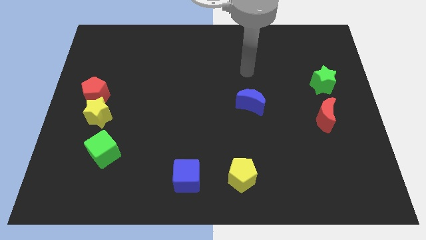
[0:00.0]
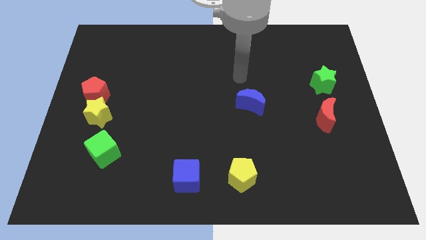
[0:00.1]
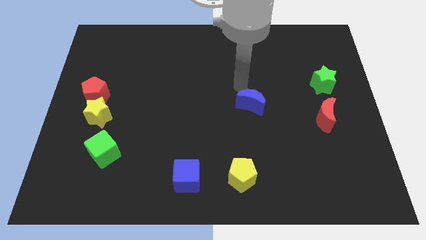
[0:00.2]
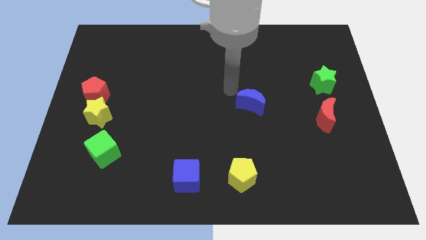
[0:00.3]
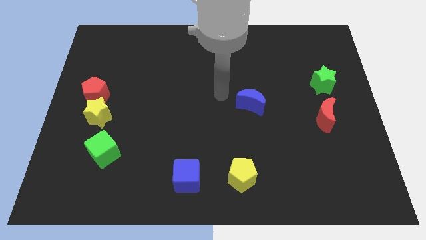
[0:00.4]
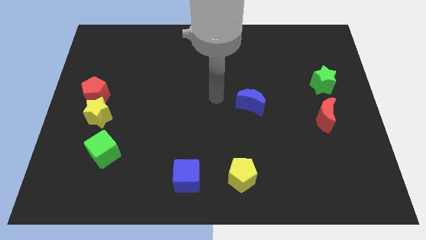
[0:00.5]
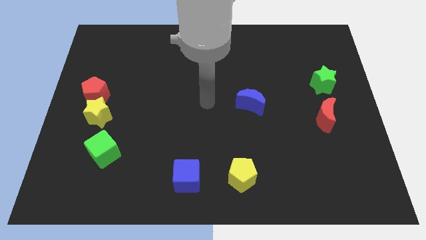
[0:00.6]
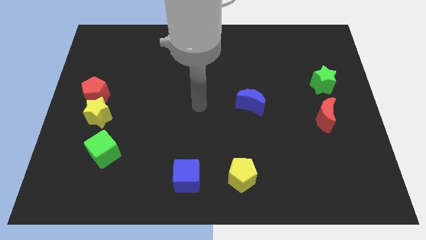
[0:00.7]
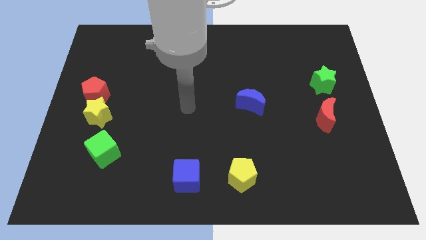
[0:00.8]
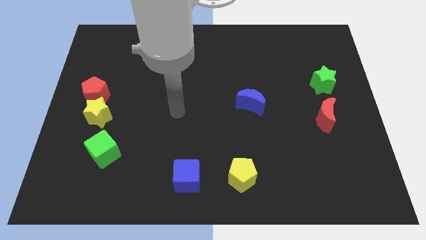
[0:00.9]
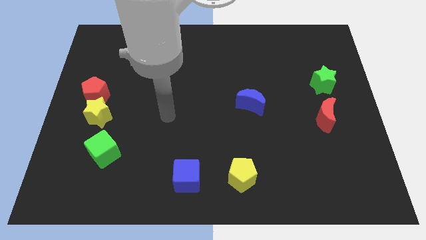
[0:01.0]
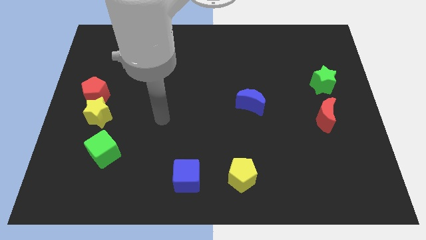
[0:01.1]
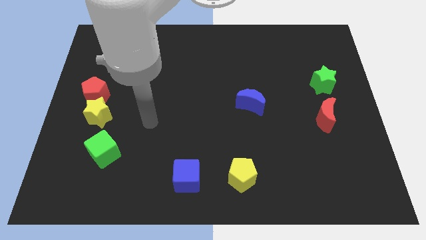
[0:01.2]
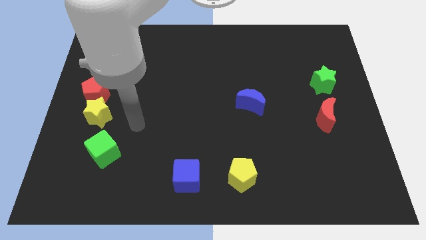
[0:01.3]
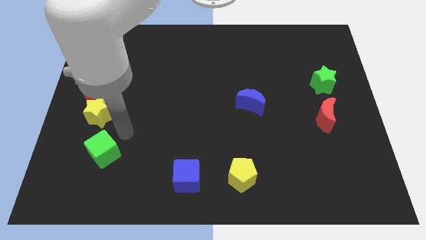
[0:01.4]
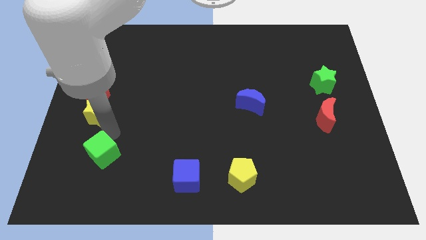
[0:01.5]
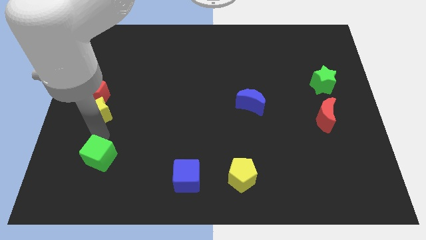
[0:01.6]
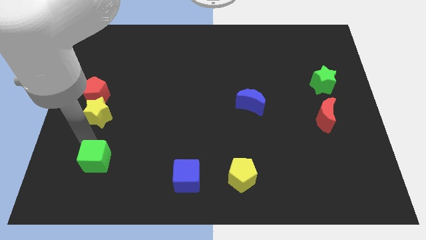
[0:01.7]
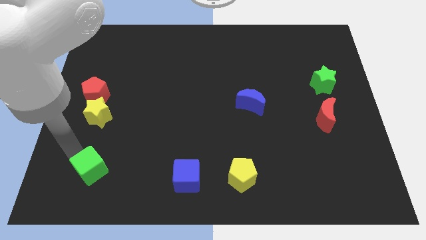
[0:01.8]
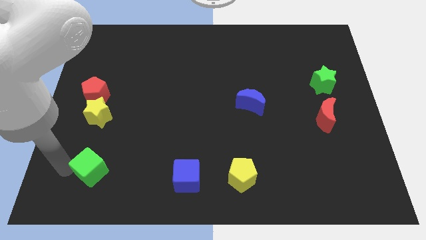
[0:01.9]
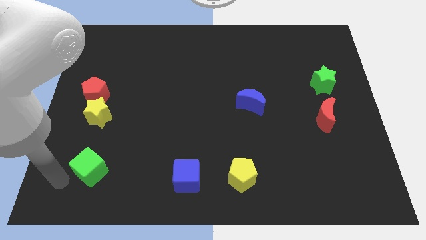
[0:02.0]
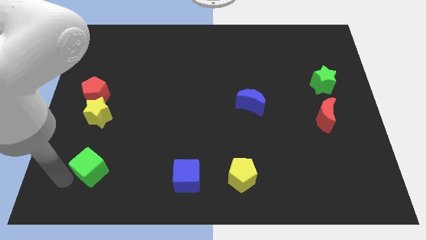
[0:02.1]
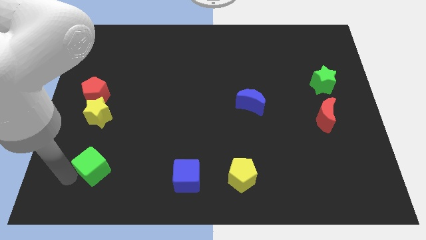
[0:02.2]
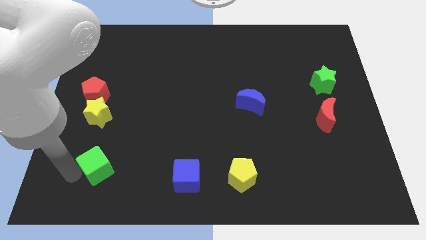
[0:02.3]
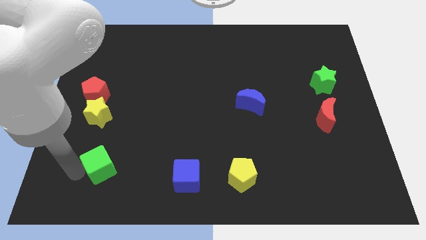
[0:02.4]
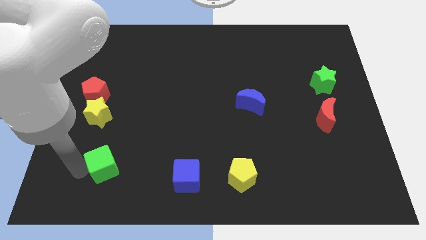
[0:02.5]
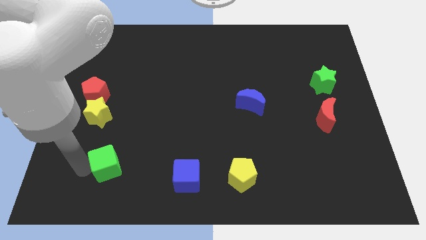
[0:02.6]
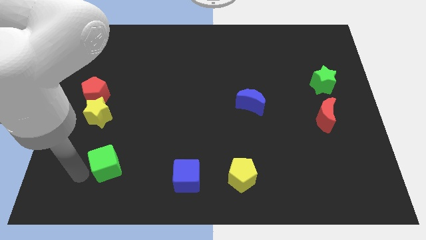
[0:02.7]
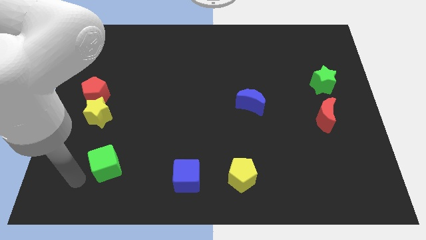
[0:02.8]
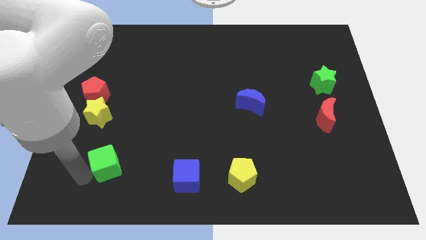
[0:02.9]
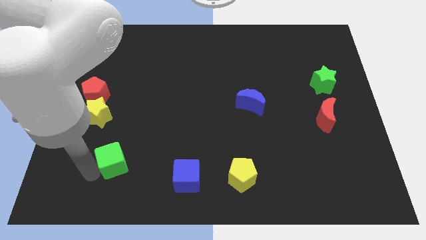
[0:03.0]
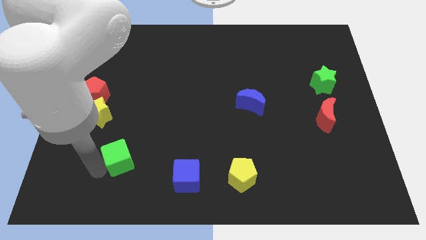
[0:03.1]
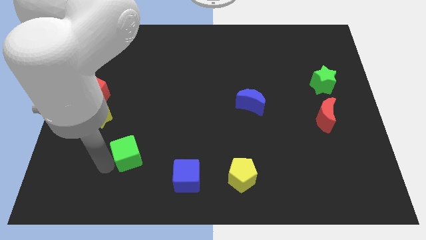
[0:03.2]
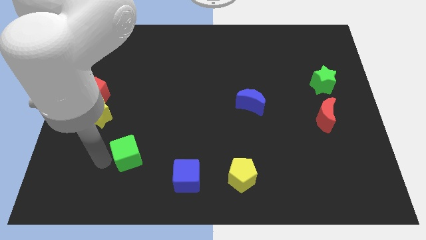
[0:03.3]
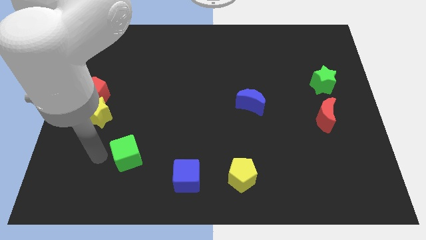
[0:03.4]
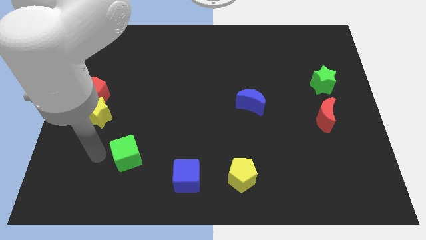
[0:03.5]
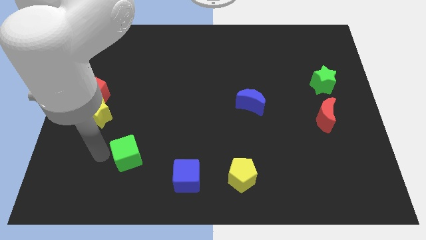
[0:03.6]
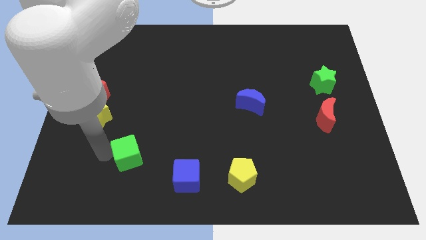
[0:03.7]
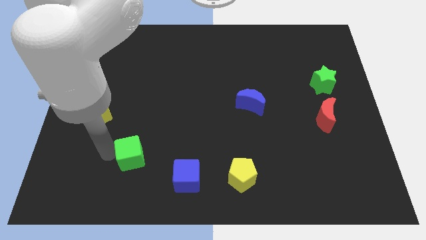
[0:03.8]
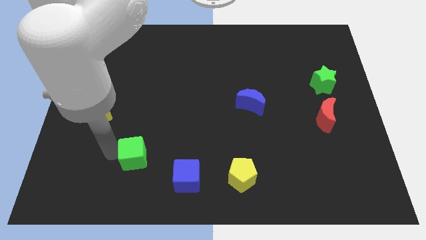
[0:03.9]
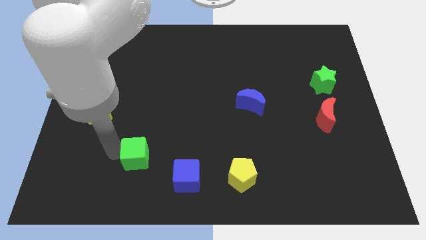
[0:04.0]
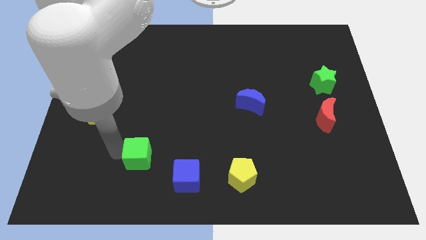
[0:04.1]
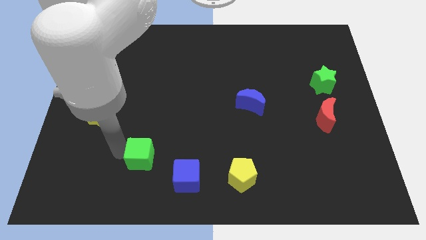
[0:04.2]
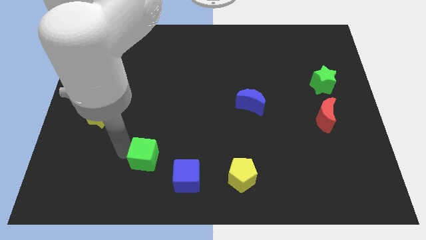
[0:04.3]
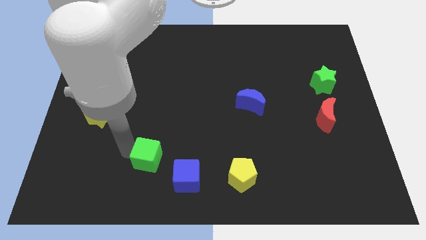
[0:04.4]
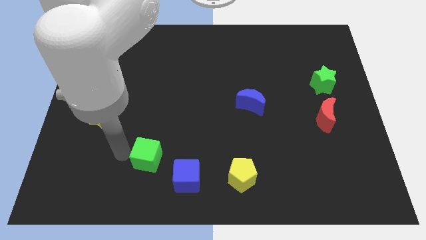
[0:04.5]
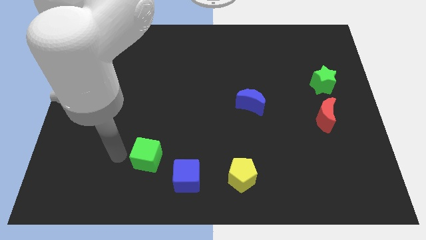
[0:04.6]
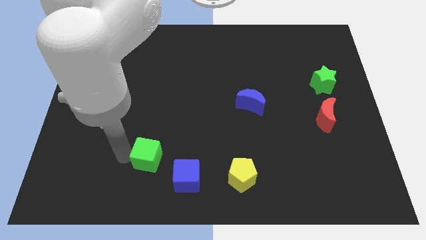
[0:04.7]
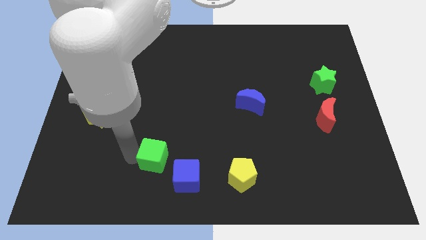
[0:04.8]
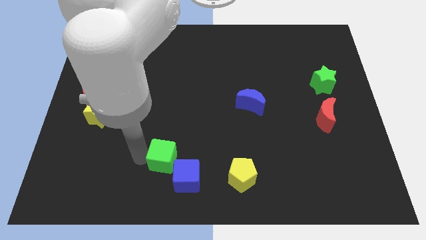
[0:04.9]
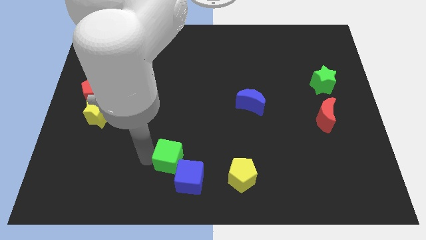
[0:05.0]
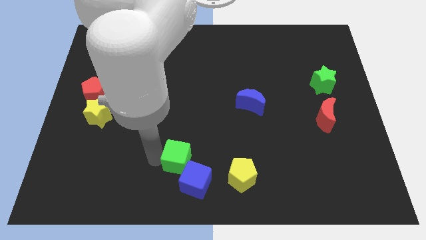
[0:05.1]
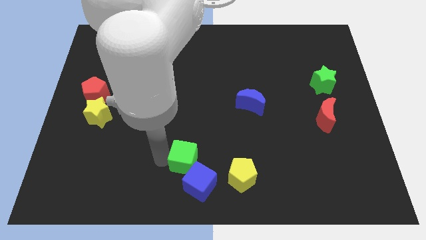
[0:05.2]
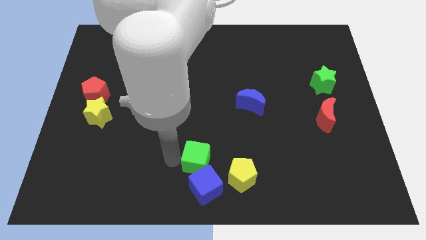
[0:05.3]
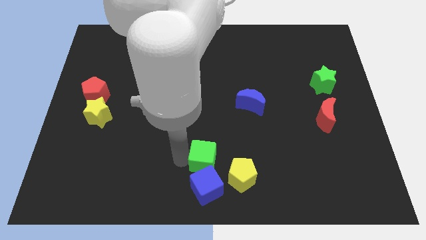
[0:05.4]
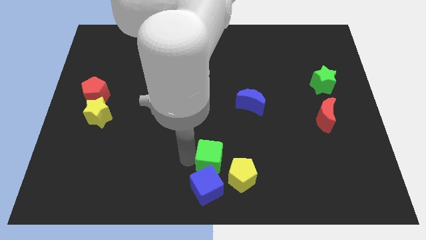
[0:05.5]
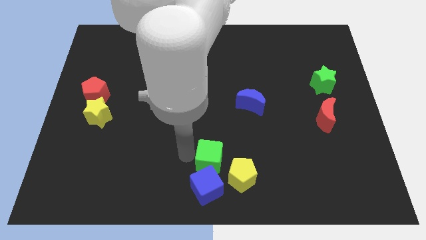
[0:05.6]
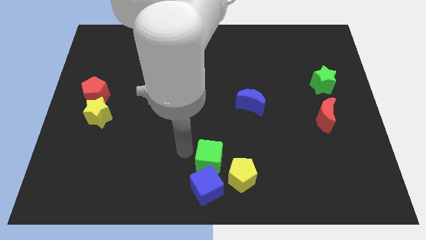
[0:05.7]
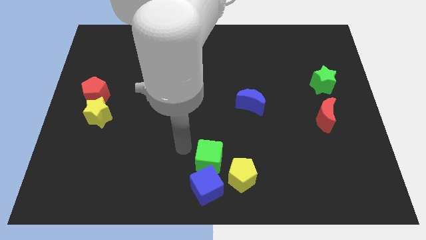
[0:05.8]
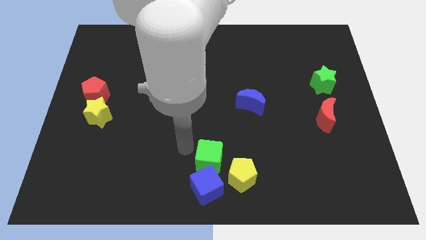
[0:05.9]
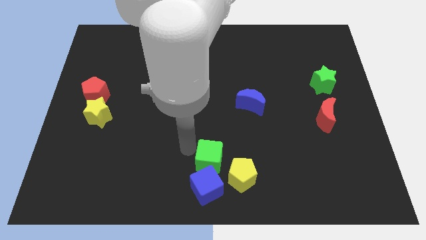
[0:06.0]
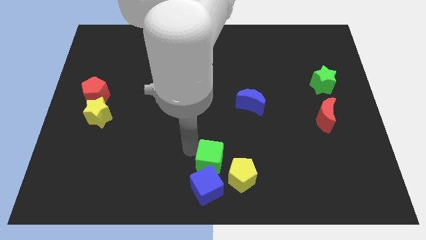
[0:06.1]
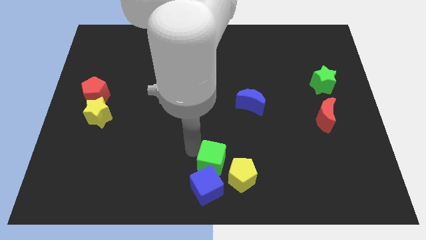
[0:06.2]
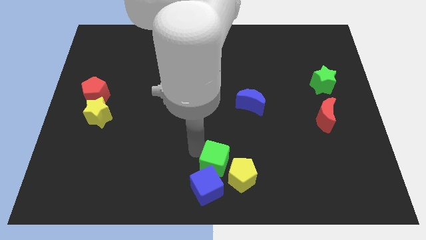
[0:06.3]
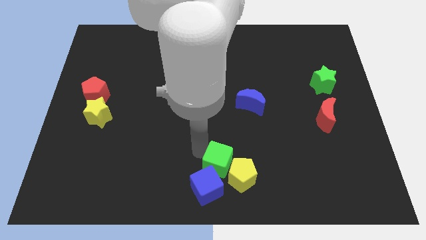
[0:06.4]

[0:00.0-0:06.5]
slide the green cube next to the yellow pentagon

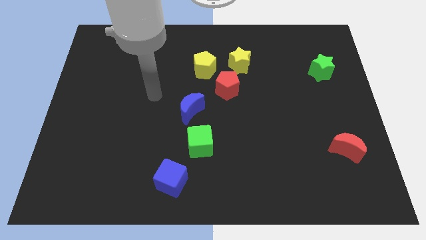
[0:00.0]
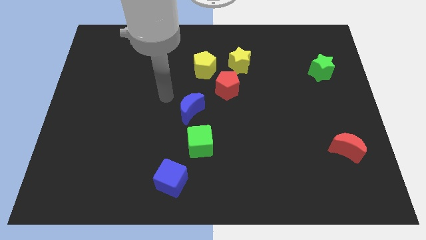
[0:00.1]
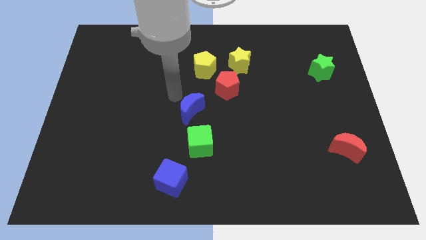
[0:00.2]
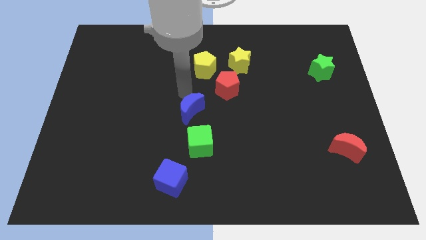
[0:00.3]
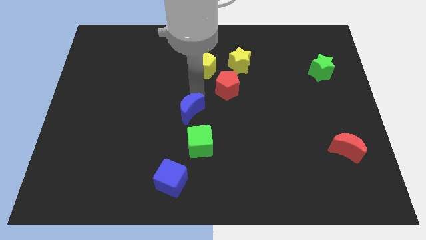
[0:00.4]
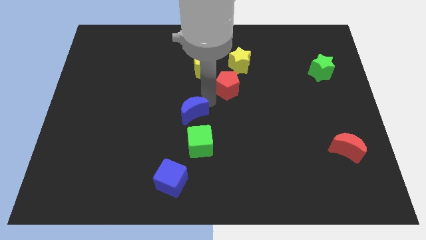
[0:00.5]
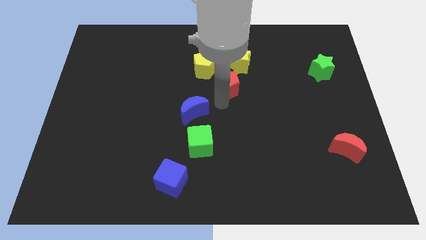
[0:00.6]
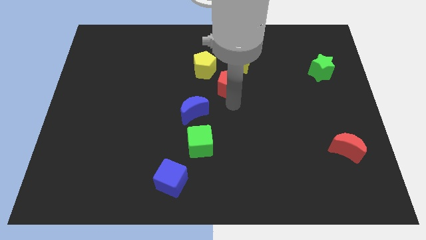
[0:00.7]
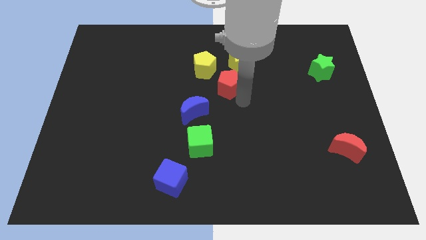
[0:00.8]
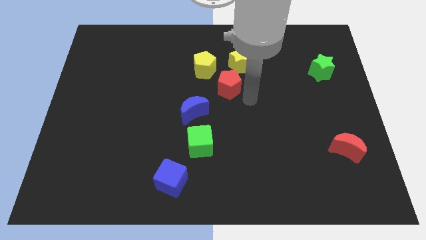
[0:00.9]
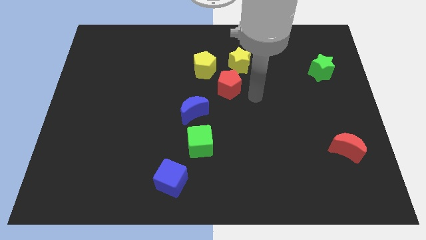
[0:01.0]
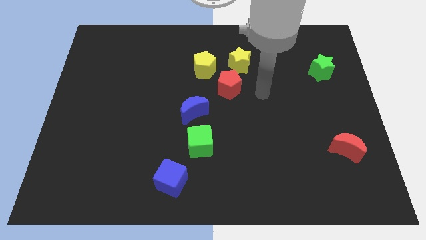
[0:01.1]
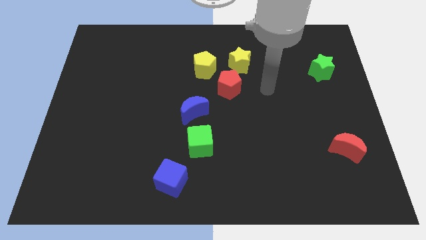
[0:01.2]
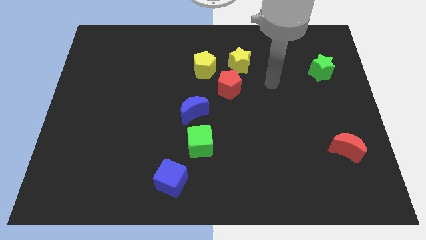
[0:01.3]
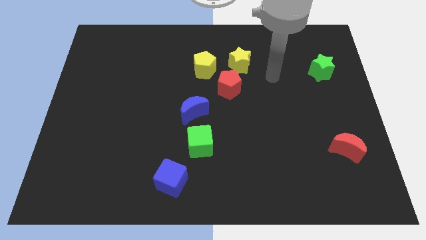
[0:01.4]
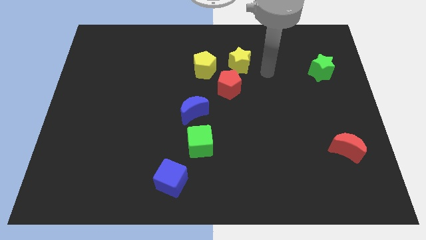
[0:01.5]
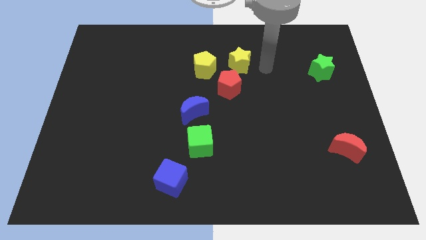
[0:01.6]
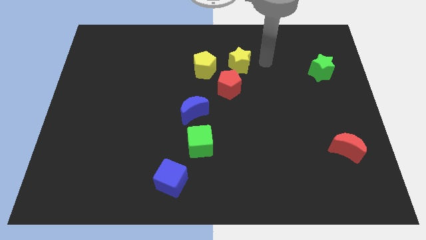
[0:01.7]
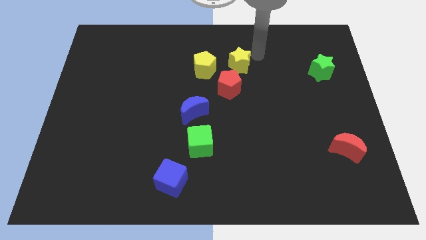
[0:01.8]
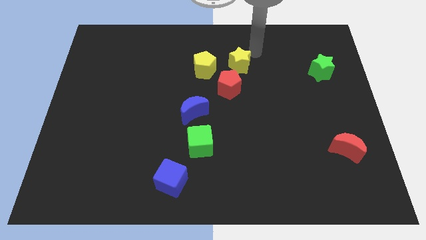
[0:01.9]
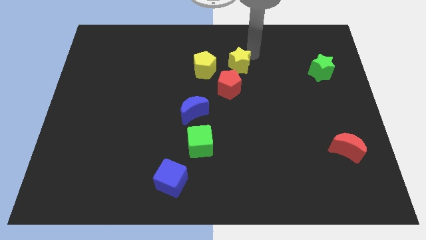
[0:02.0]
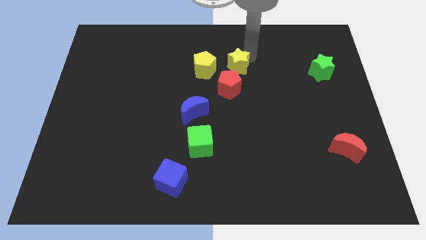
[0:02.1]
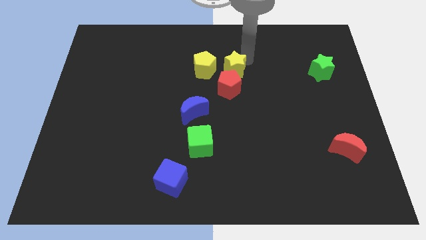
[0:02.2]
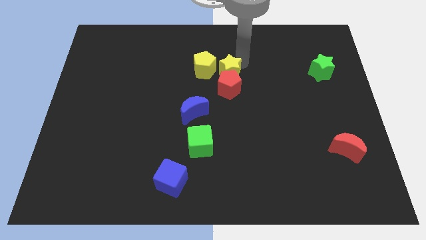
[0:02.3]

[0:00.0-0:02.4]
put the yellow star next to the red pentagon
